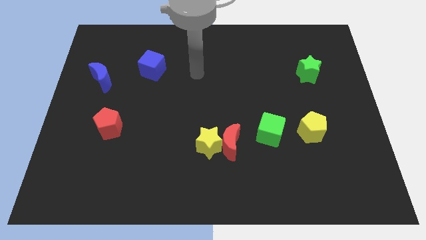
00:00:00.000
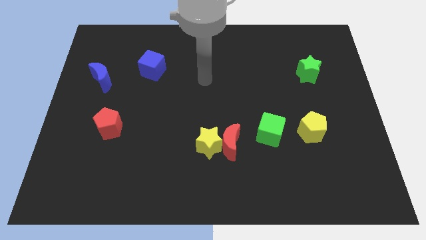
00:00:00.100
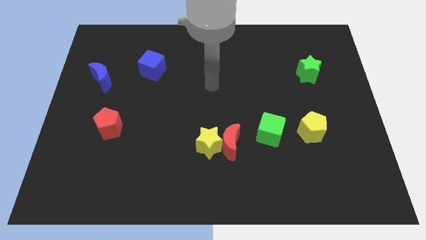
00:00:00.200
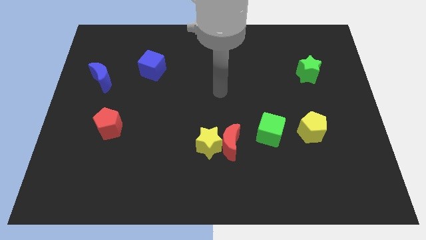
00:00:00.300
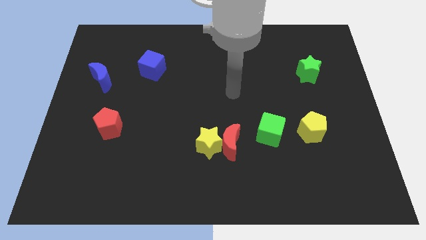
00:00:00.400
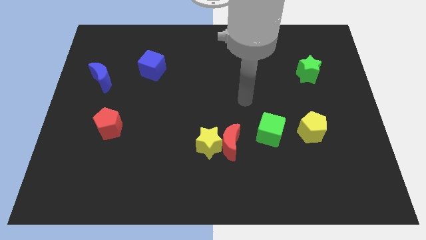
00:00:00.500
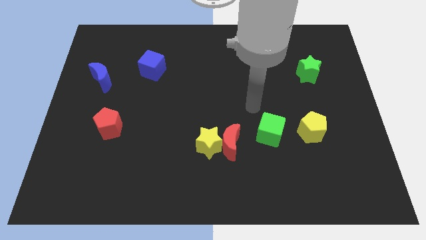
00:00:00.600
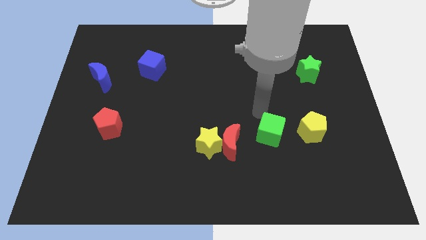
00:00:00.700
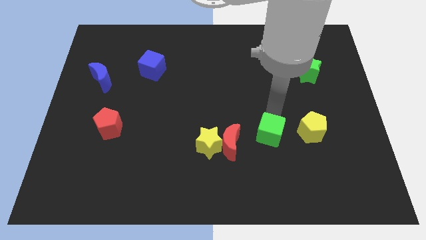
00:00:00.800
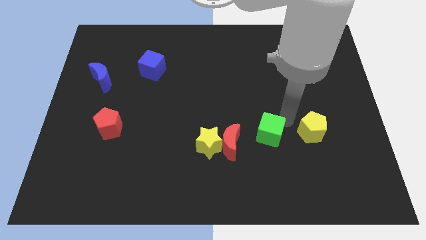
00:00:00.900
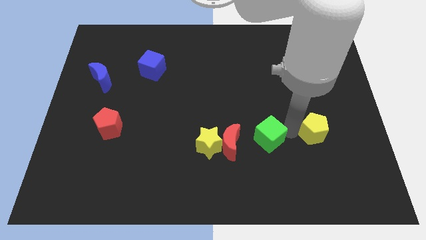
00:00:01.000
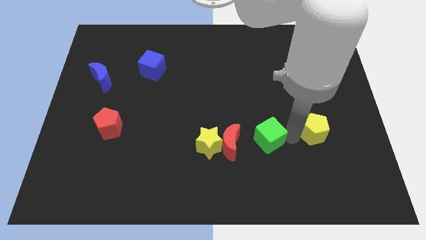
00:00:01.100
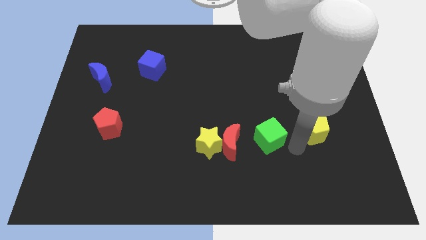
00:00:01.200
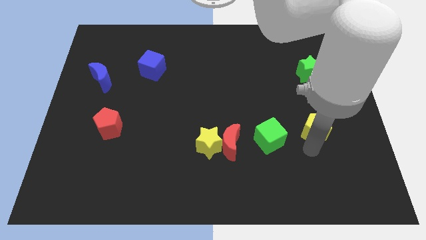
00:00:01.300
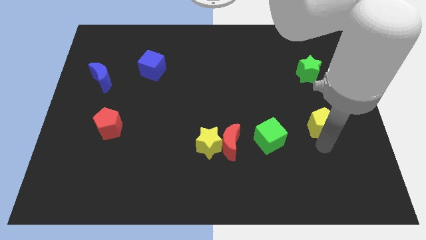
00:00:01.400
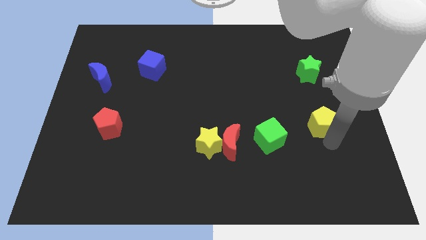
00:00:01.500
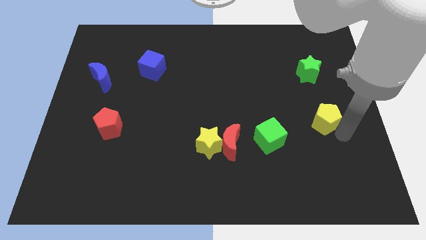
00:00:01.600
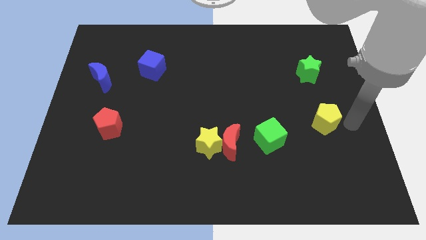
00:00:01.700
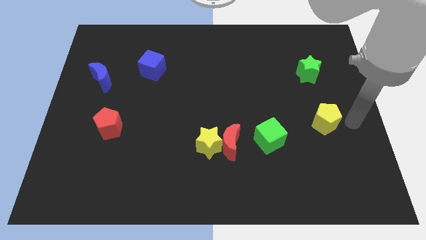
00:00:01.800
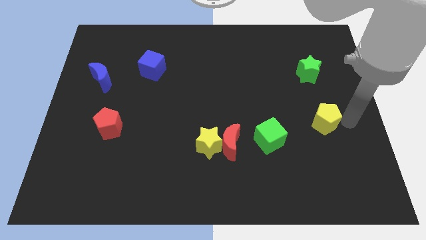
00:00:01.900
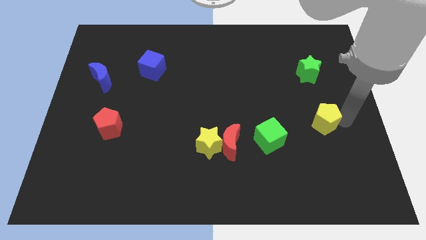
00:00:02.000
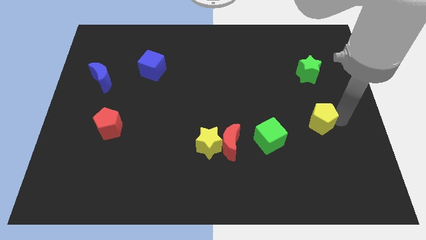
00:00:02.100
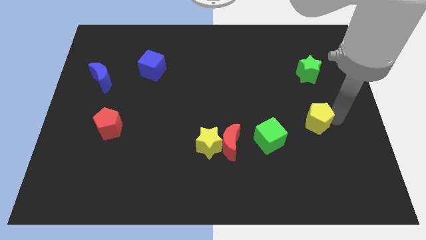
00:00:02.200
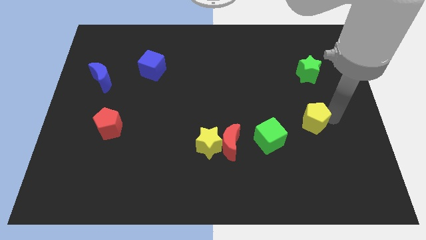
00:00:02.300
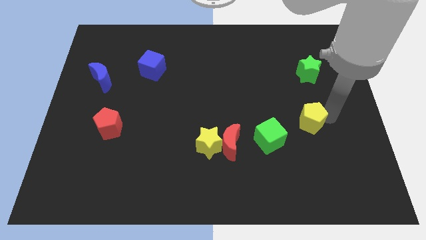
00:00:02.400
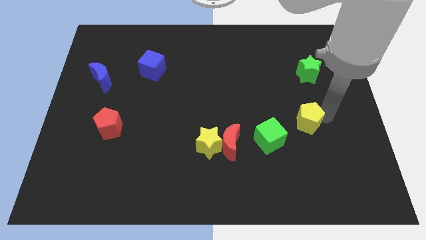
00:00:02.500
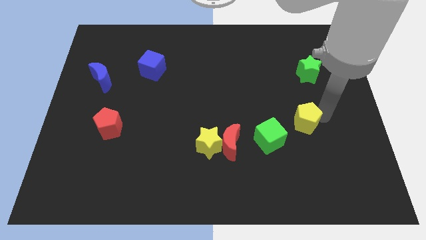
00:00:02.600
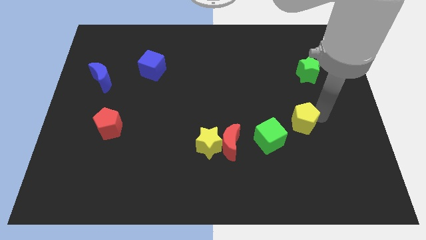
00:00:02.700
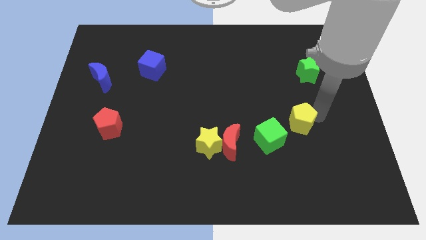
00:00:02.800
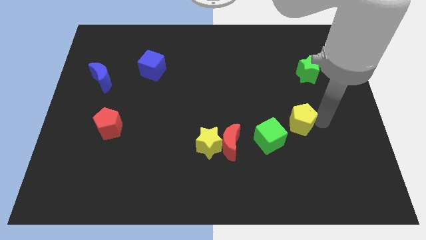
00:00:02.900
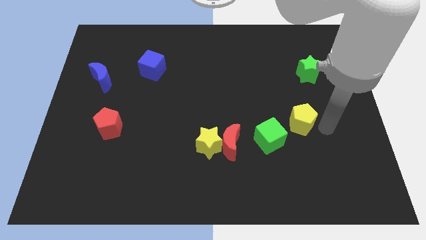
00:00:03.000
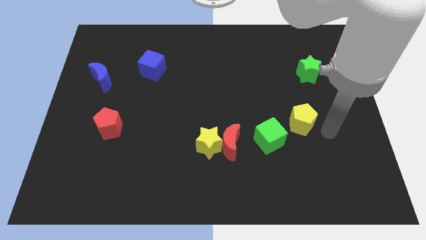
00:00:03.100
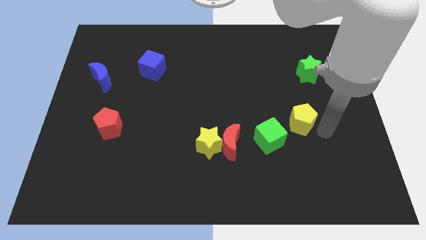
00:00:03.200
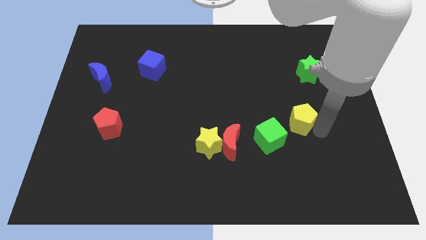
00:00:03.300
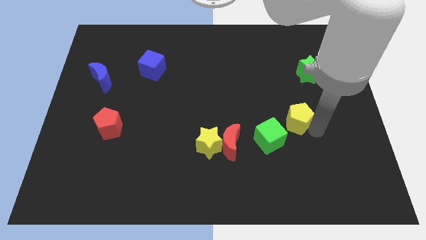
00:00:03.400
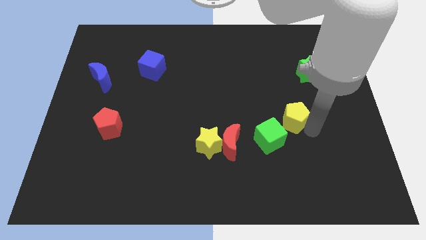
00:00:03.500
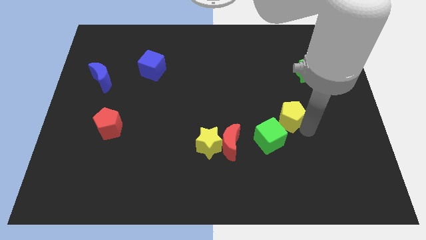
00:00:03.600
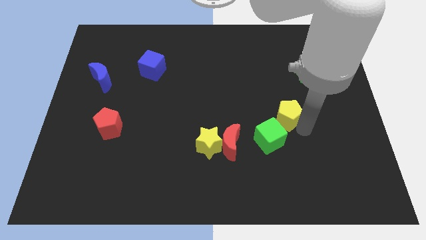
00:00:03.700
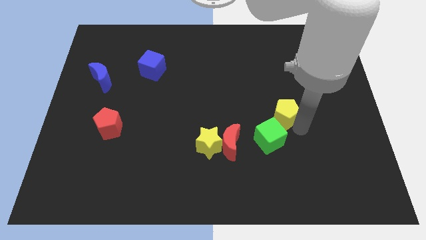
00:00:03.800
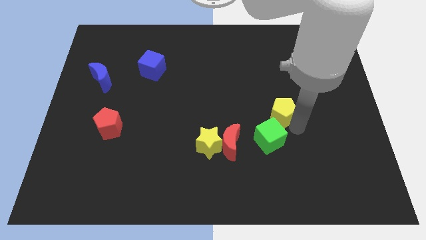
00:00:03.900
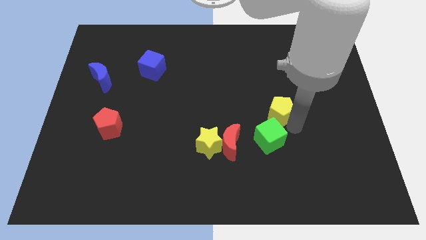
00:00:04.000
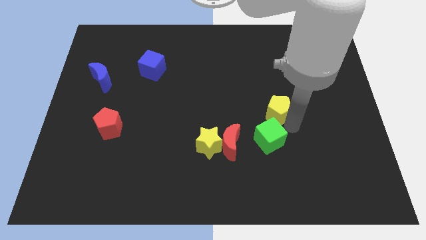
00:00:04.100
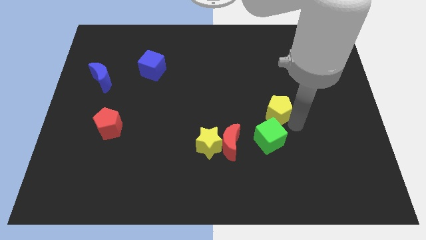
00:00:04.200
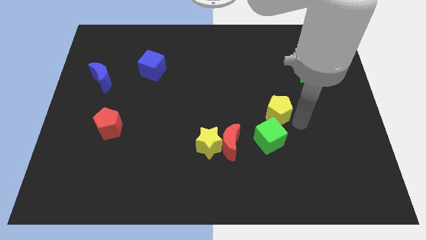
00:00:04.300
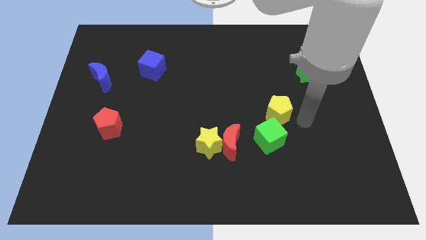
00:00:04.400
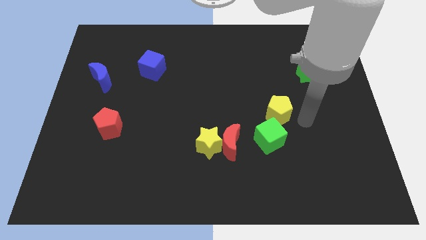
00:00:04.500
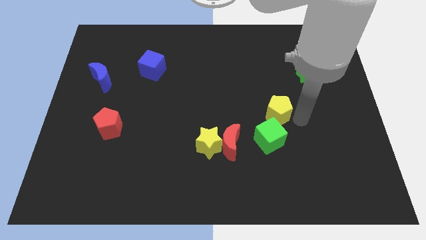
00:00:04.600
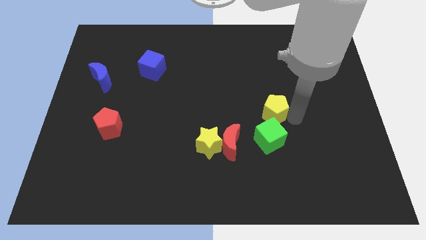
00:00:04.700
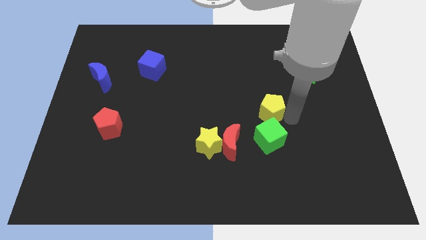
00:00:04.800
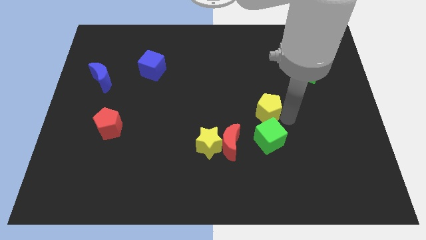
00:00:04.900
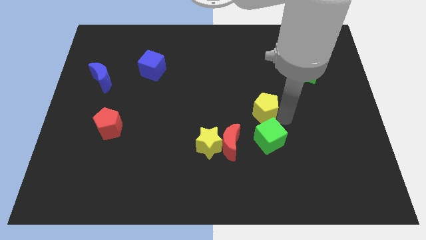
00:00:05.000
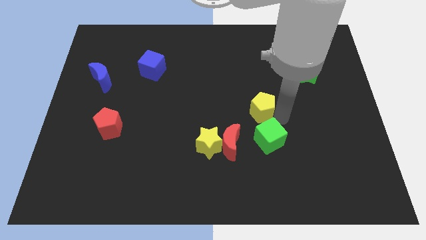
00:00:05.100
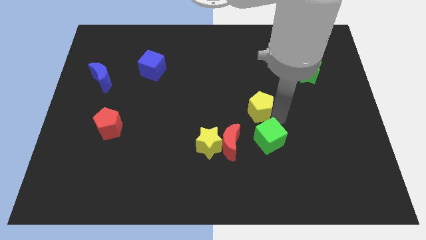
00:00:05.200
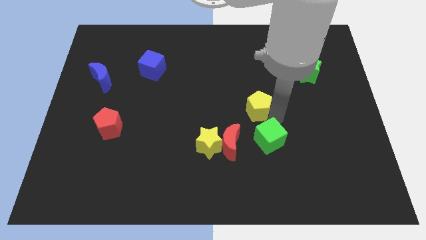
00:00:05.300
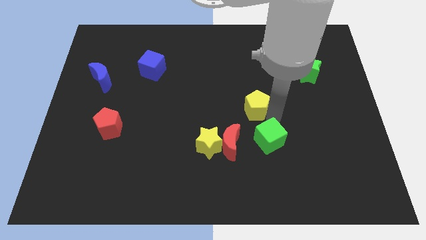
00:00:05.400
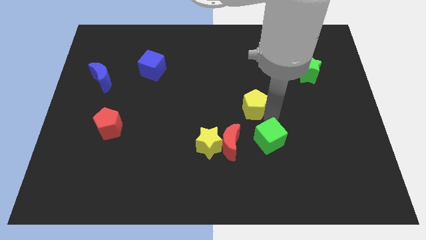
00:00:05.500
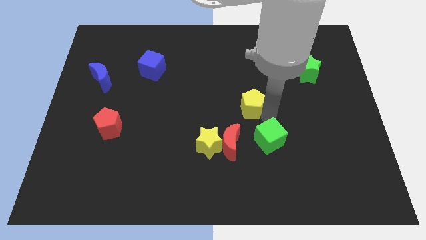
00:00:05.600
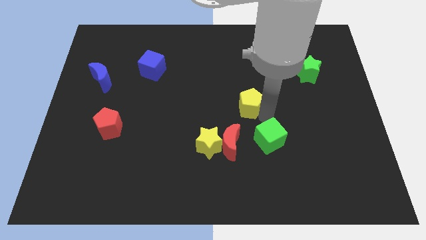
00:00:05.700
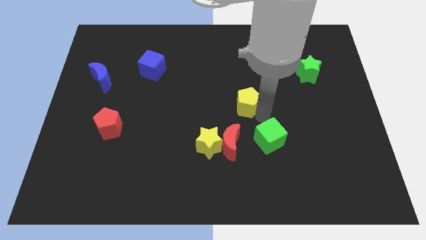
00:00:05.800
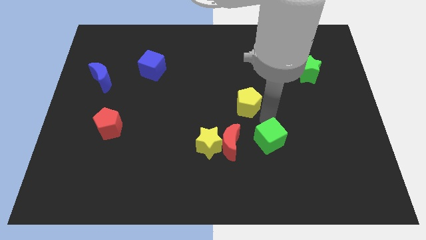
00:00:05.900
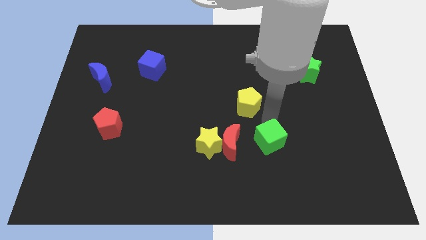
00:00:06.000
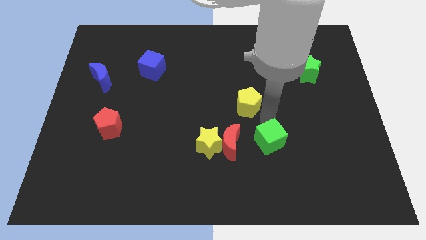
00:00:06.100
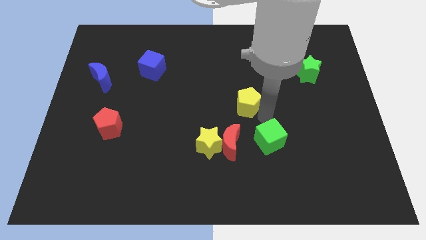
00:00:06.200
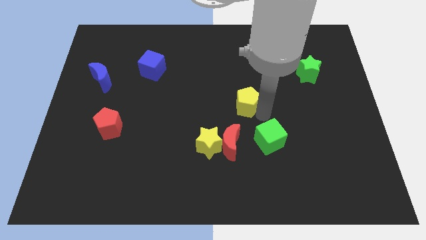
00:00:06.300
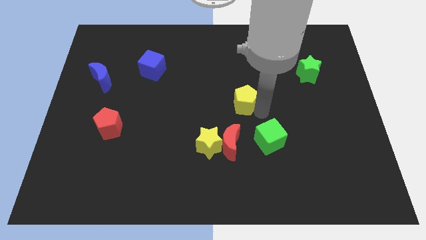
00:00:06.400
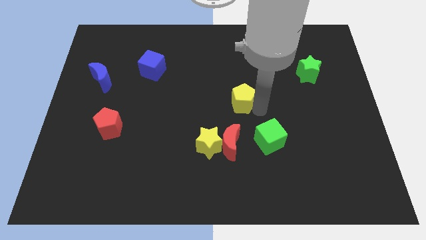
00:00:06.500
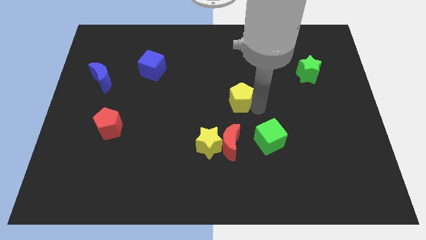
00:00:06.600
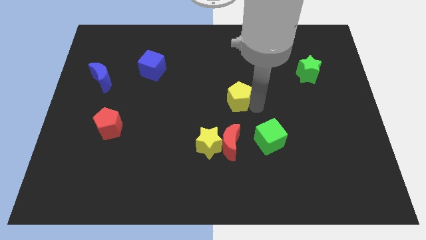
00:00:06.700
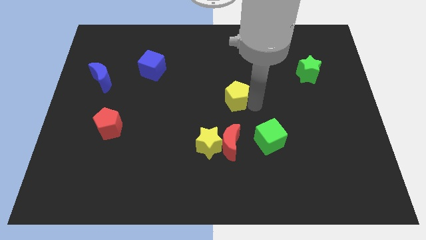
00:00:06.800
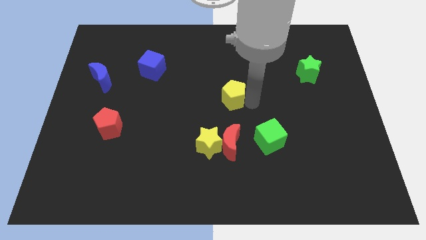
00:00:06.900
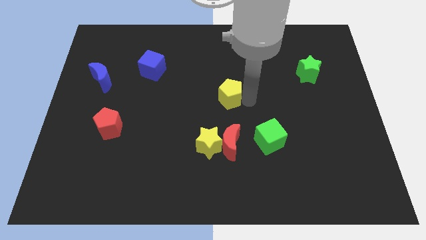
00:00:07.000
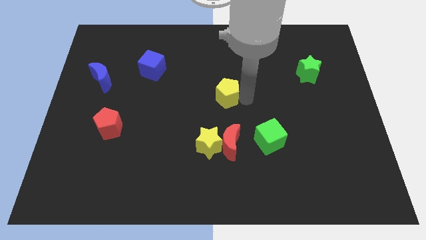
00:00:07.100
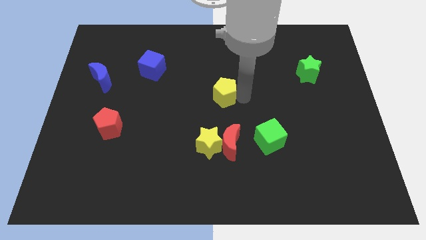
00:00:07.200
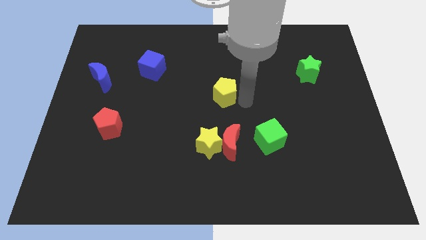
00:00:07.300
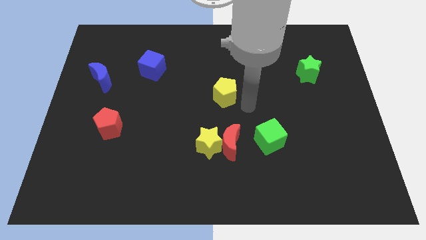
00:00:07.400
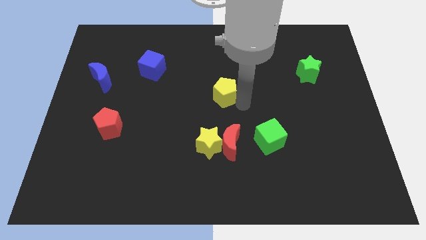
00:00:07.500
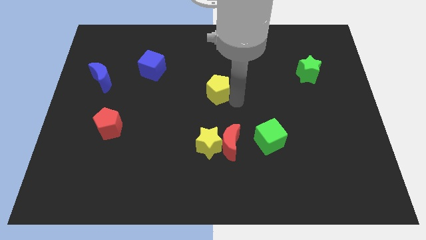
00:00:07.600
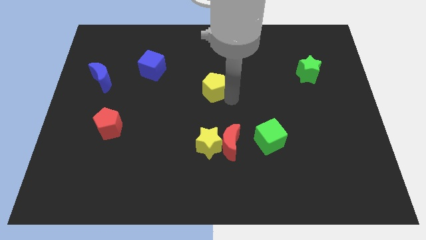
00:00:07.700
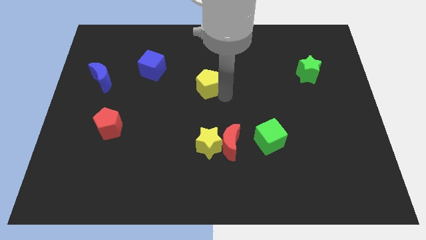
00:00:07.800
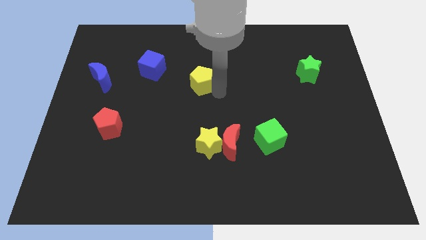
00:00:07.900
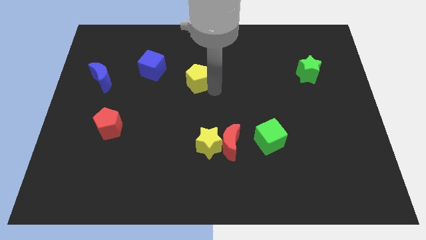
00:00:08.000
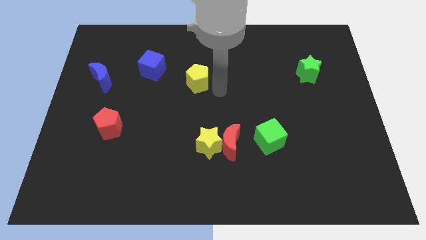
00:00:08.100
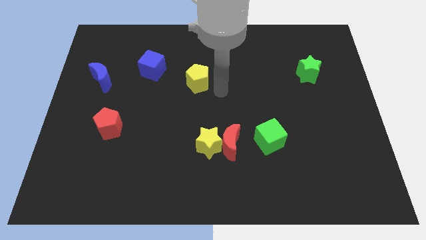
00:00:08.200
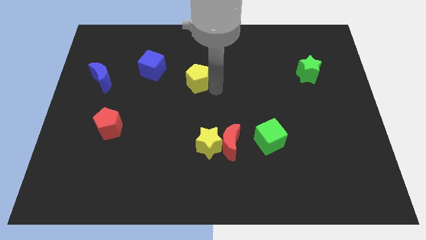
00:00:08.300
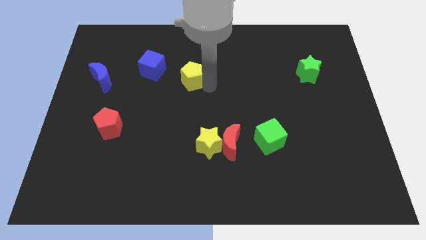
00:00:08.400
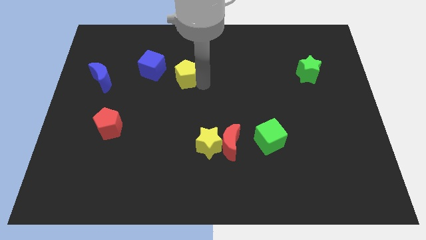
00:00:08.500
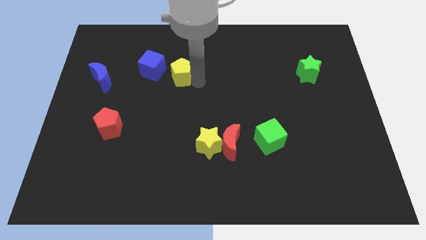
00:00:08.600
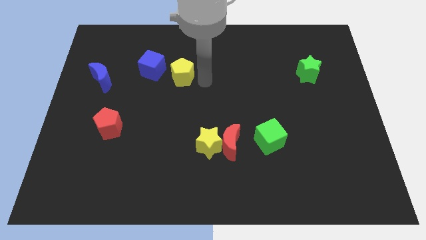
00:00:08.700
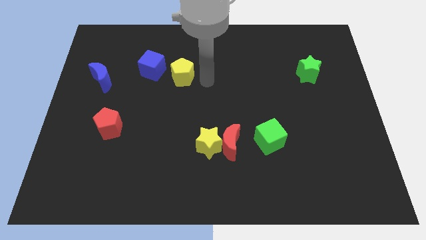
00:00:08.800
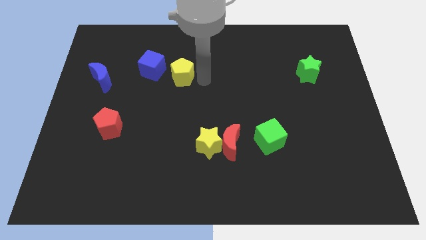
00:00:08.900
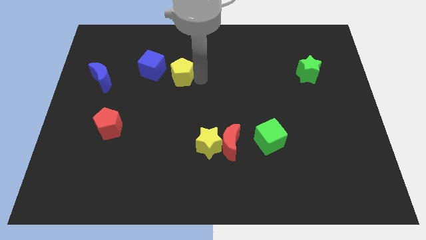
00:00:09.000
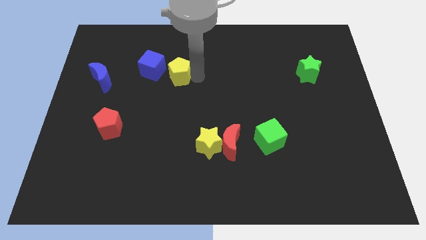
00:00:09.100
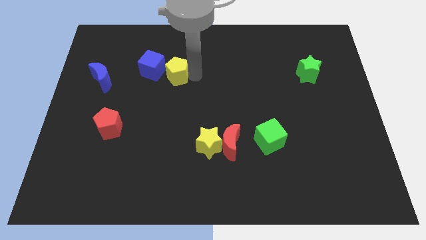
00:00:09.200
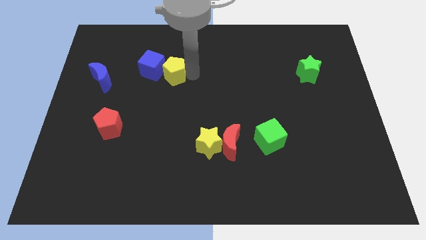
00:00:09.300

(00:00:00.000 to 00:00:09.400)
move the yellow pentagon to the blue cube
